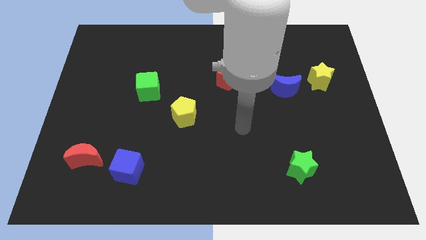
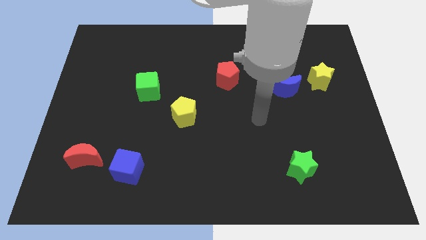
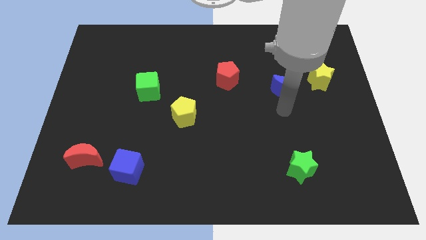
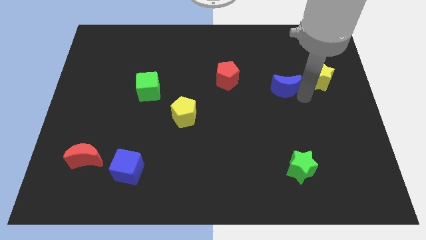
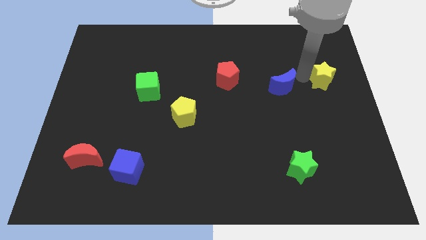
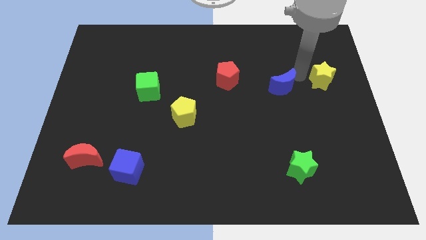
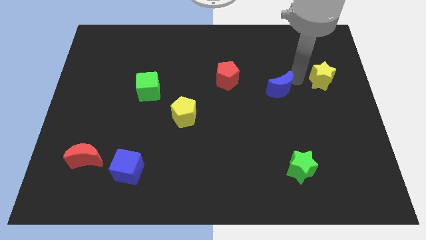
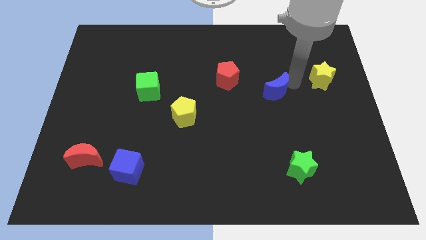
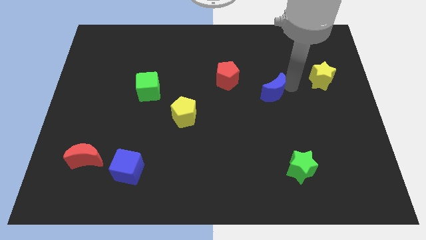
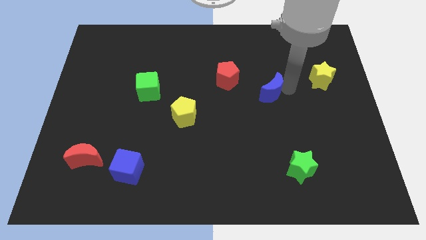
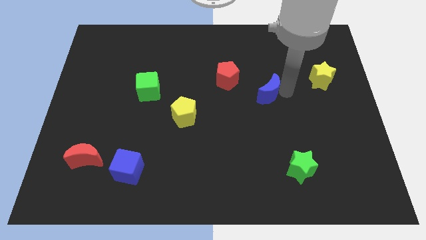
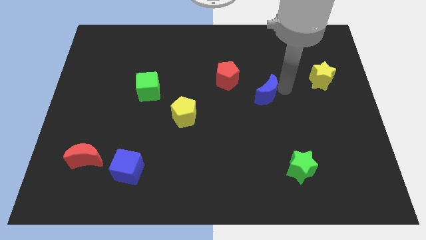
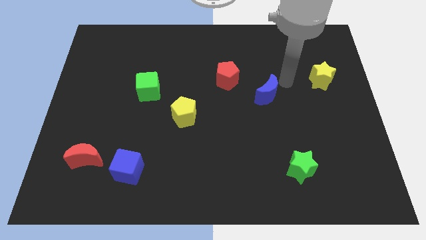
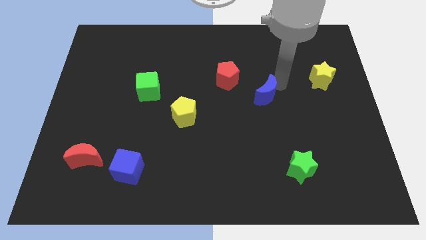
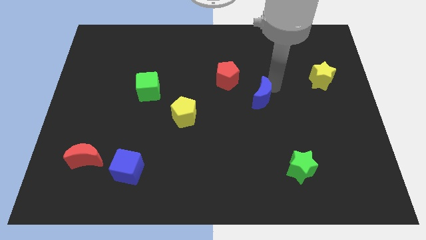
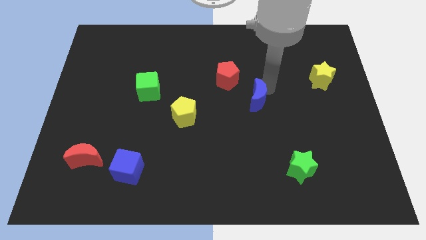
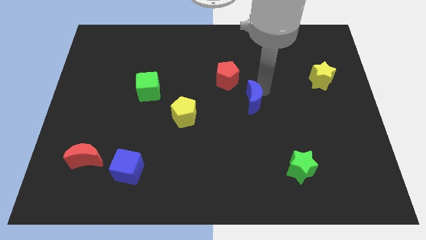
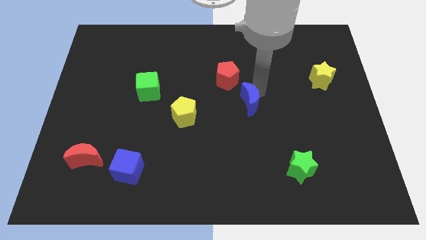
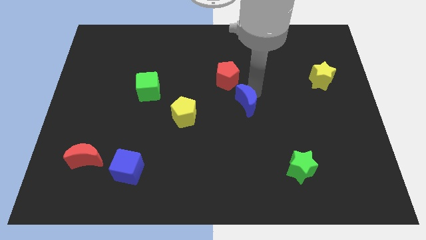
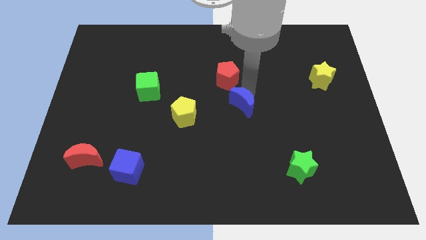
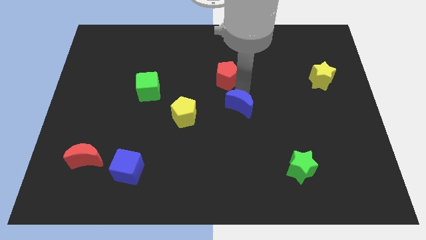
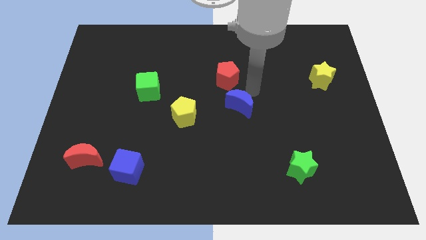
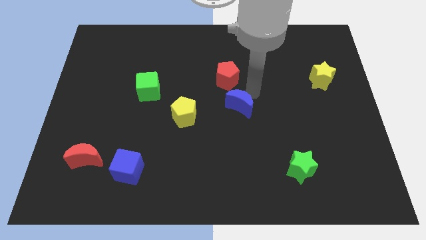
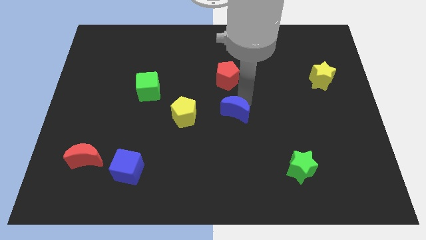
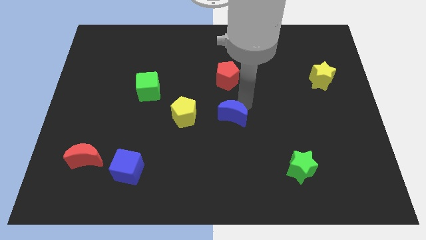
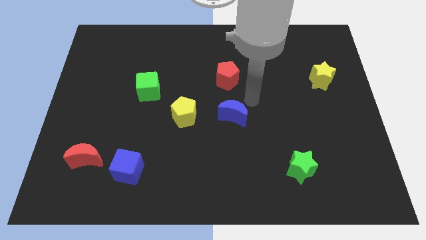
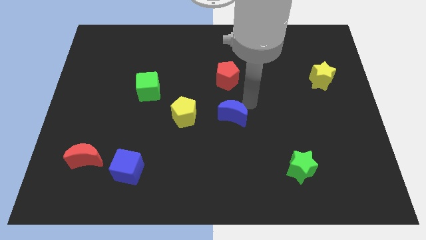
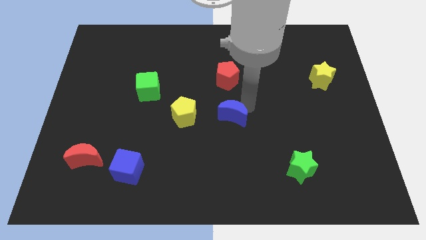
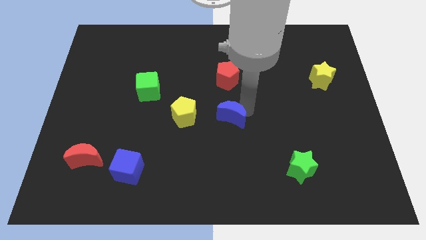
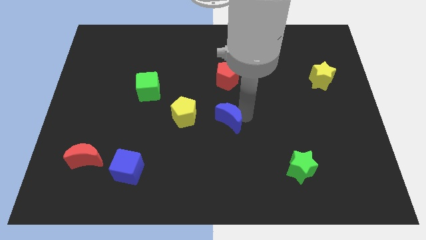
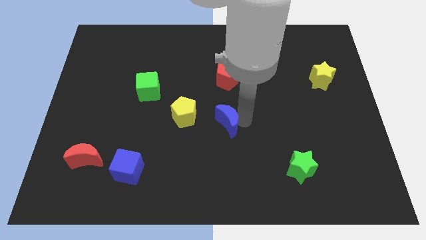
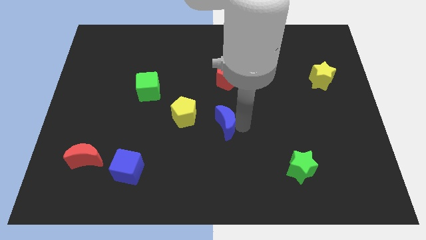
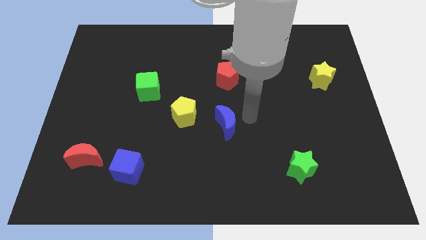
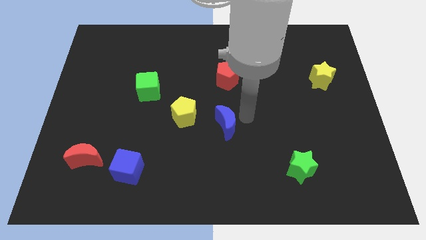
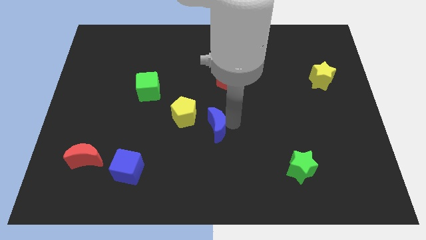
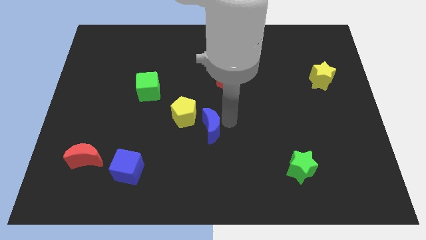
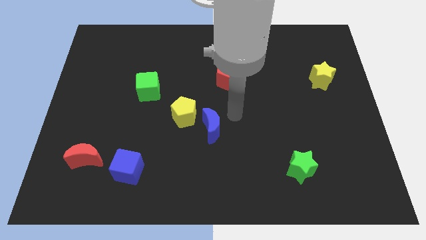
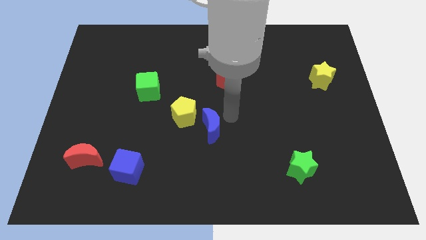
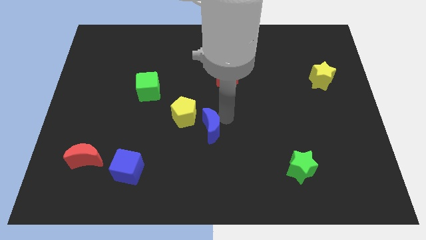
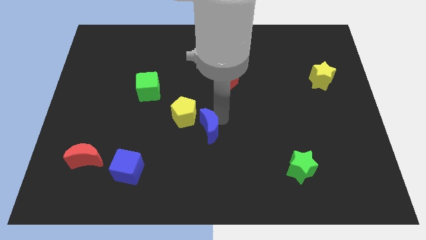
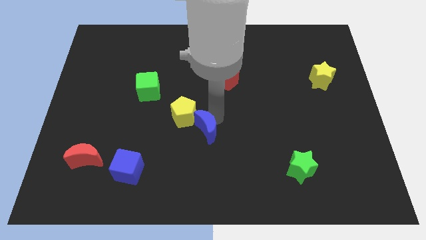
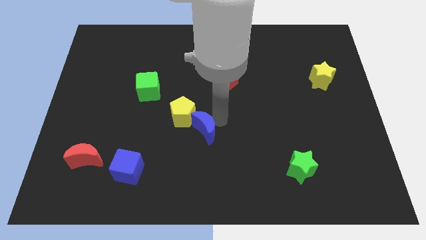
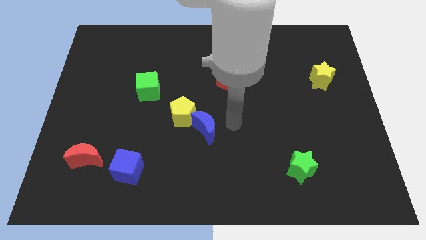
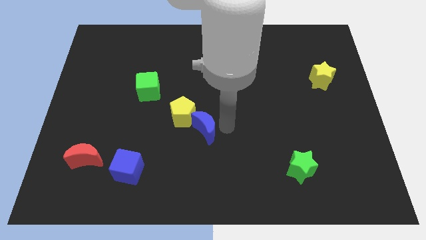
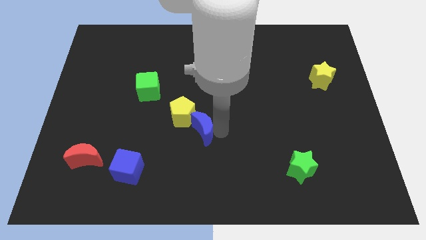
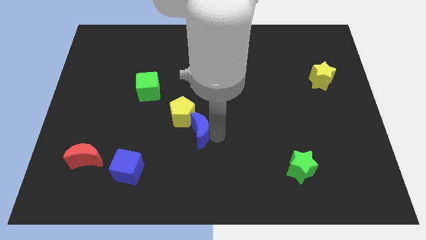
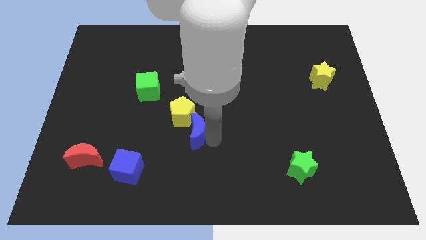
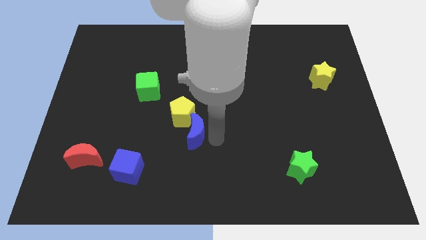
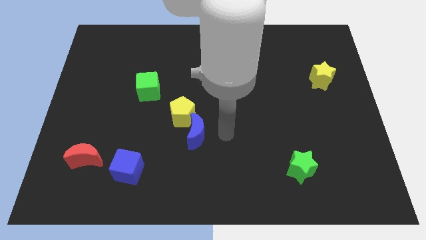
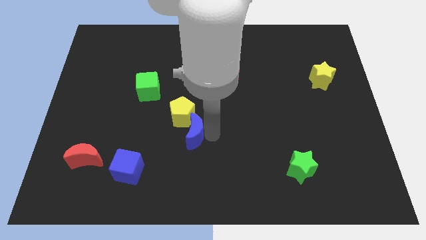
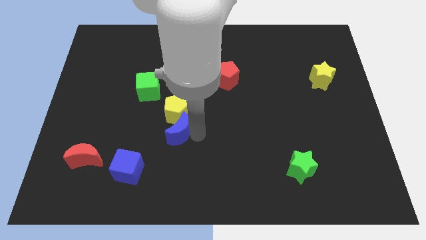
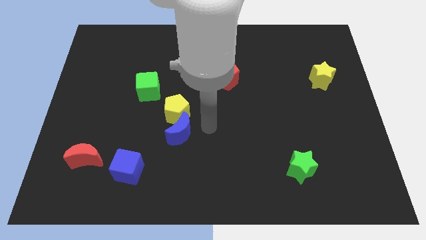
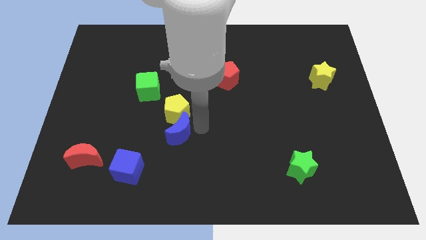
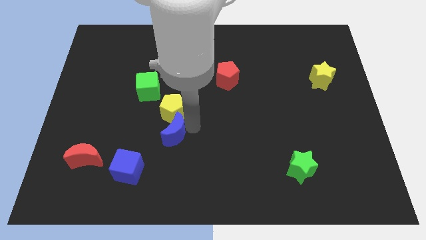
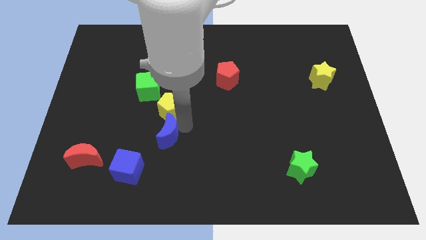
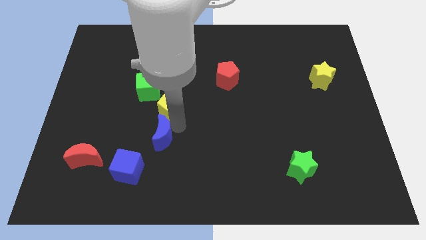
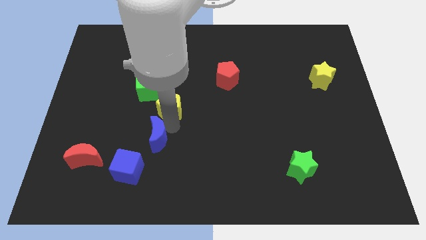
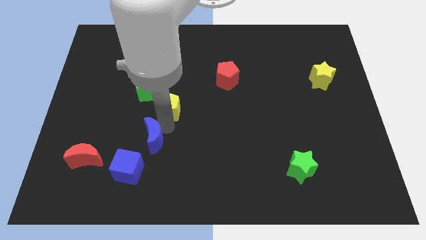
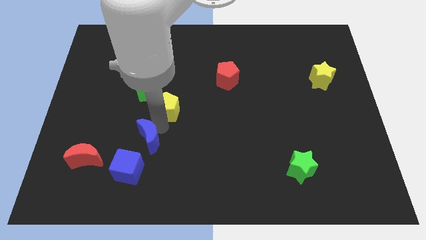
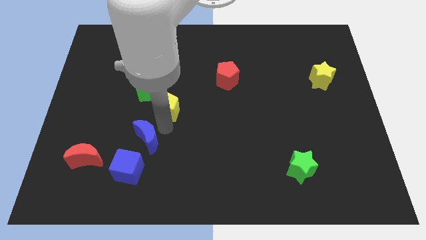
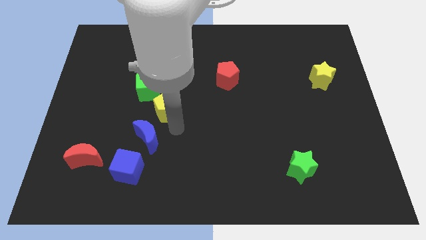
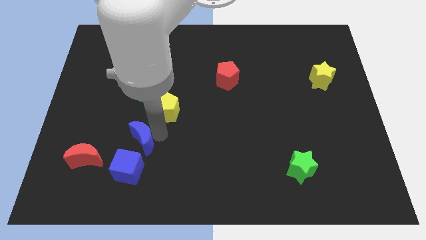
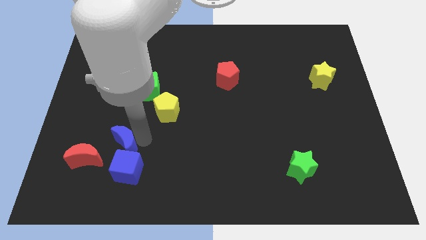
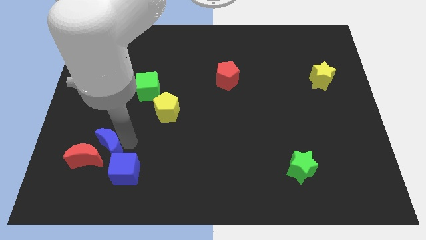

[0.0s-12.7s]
push the blue moon towards the red moon

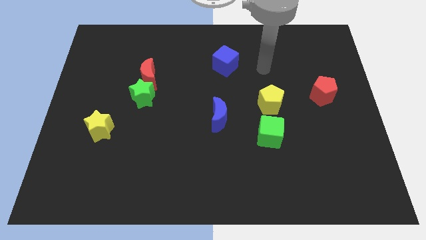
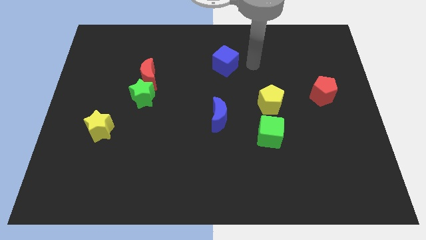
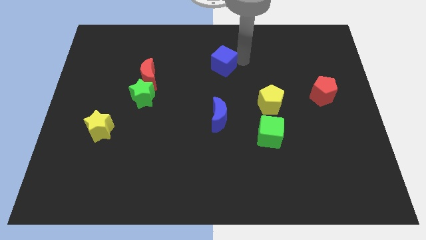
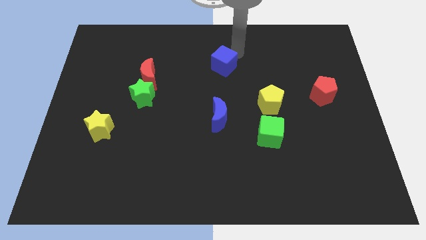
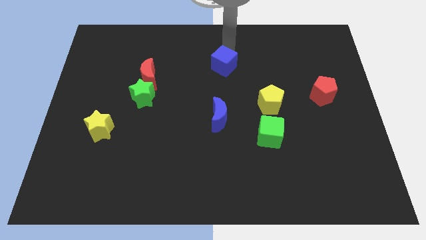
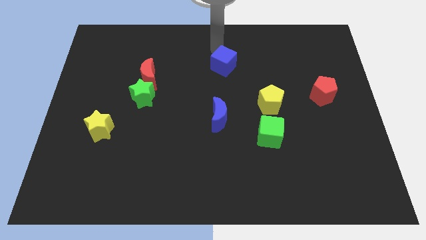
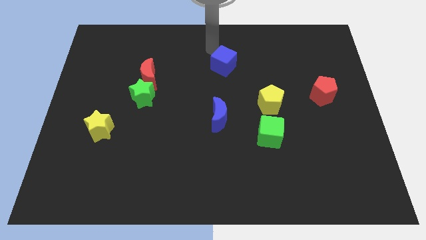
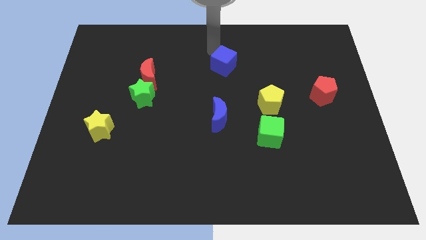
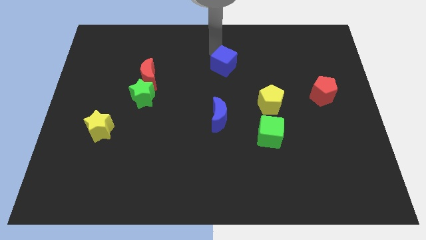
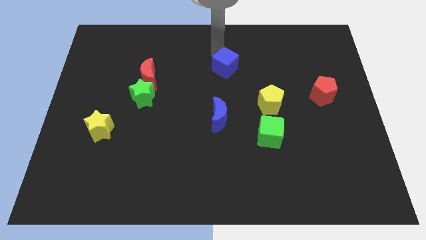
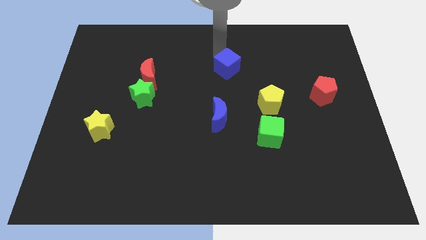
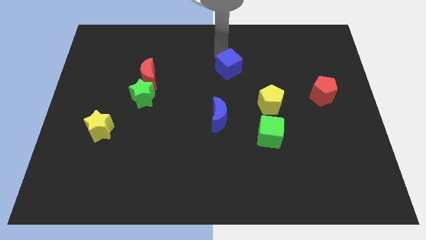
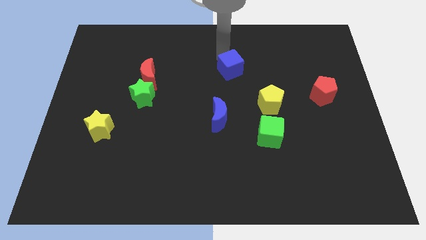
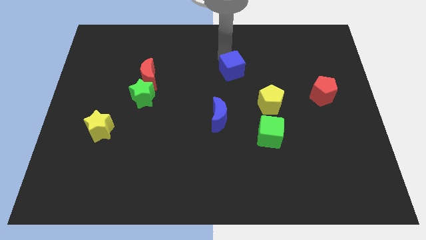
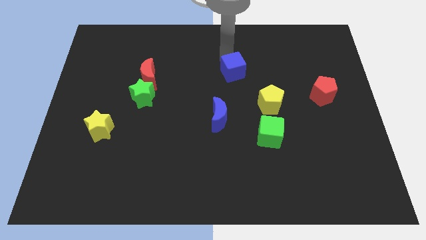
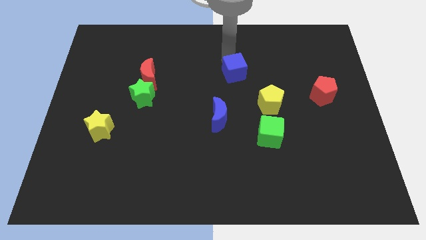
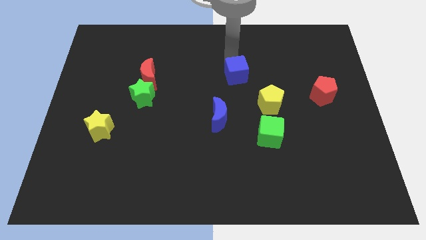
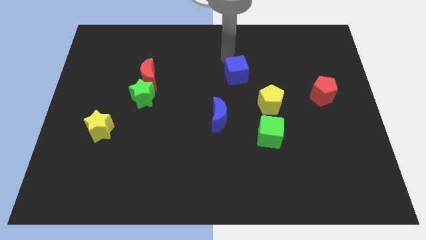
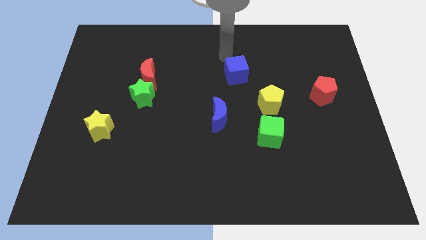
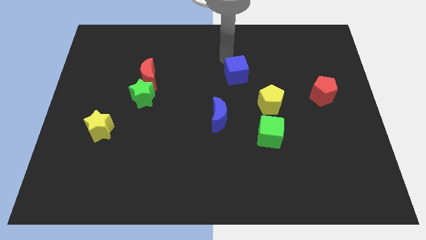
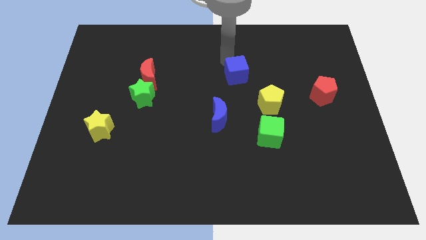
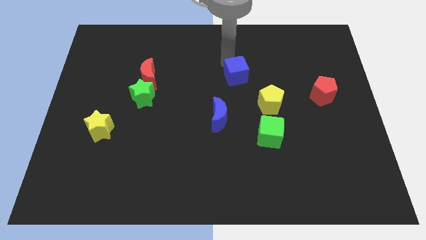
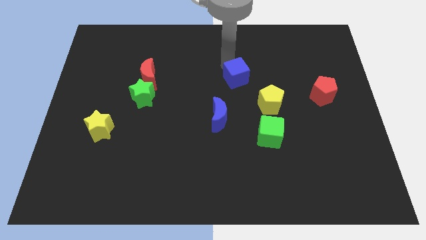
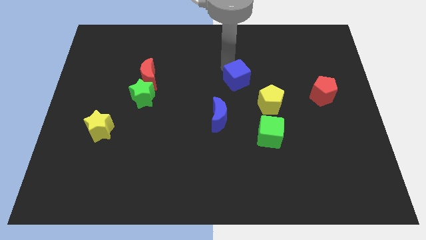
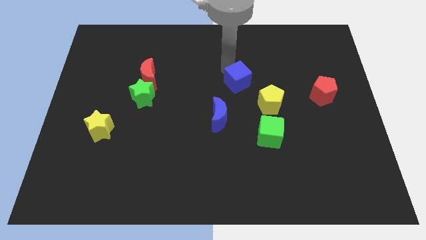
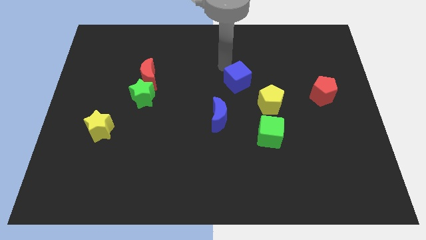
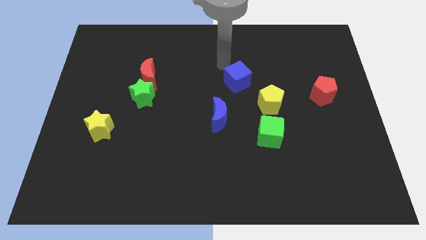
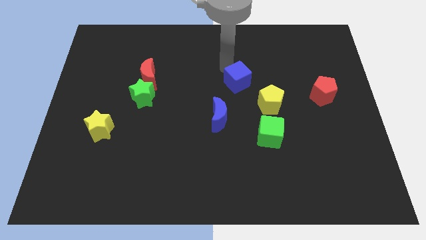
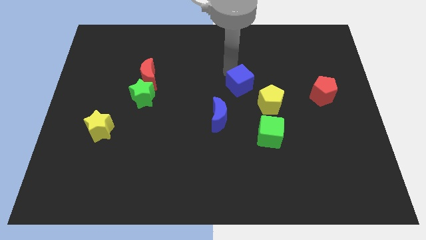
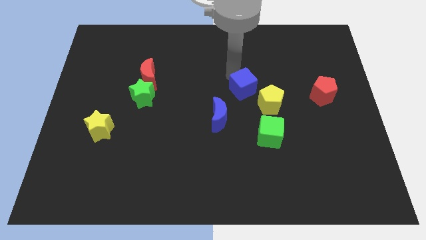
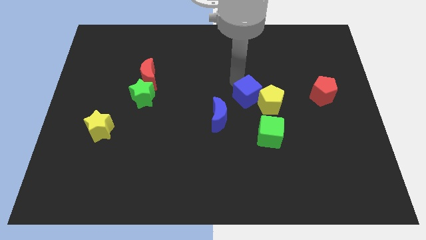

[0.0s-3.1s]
slide the blue cube to the yellow pentagon
